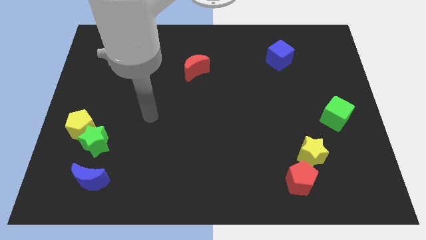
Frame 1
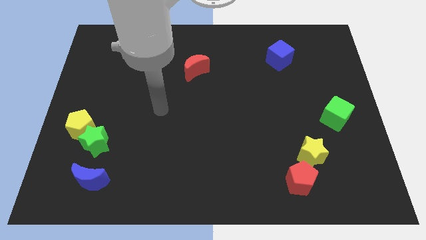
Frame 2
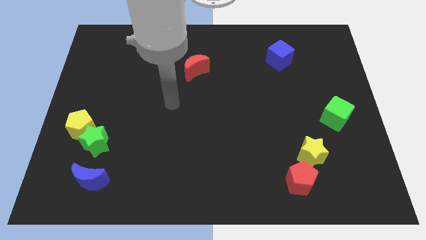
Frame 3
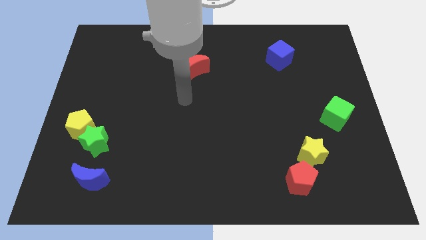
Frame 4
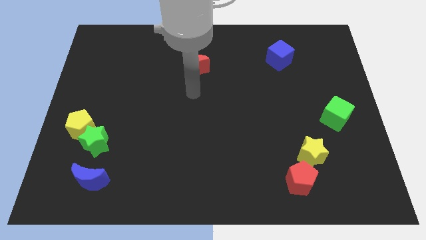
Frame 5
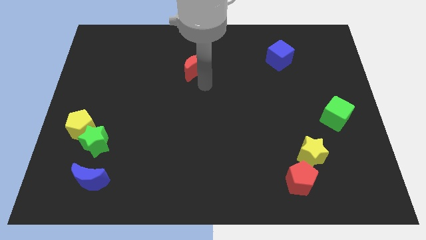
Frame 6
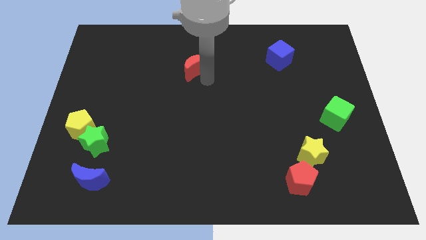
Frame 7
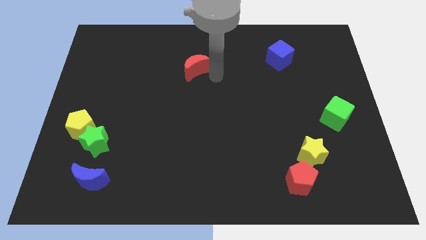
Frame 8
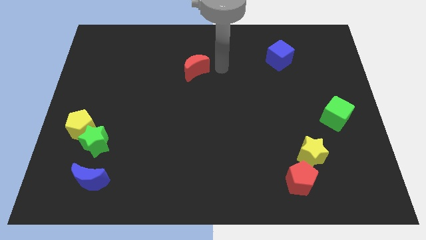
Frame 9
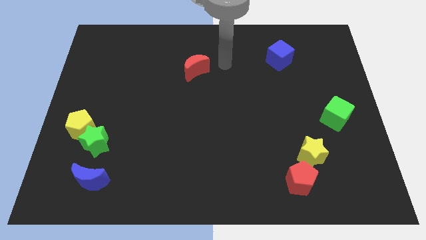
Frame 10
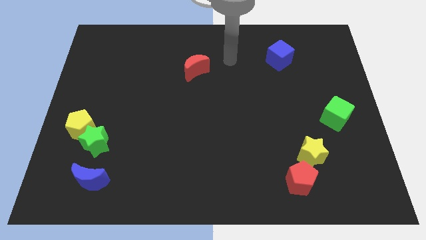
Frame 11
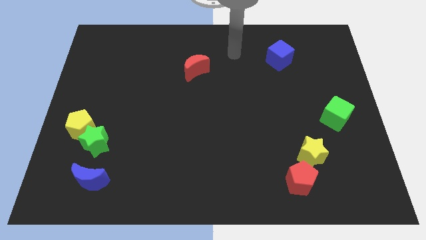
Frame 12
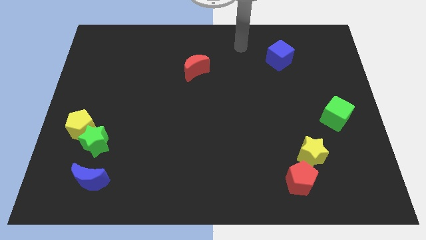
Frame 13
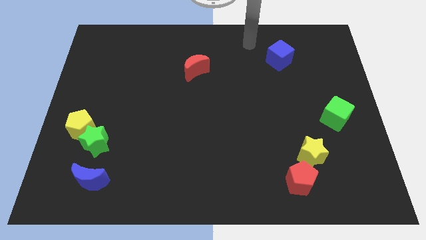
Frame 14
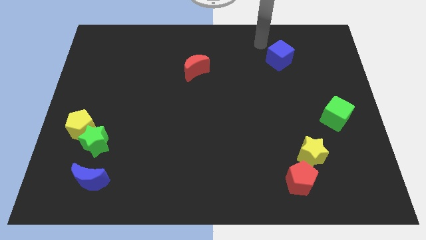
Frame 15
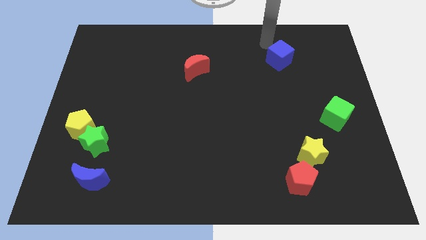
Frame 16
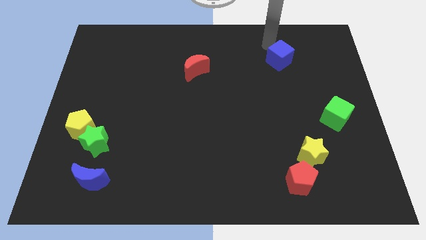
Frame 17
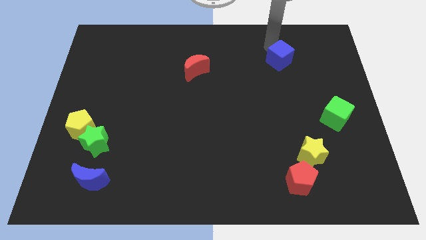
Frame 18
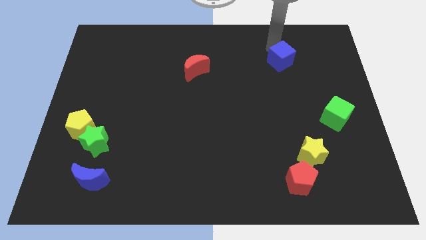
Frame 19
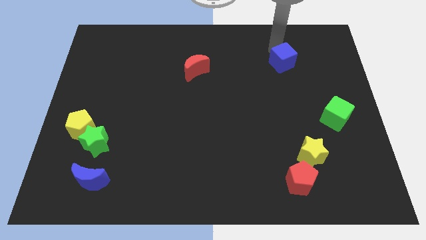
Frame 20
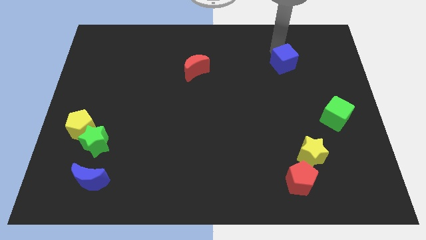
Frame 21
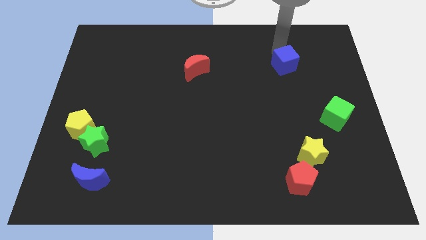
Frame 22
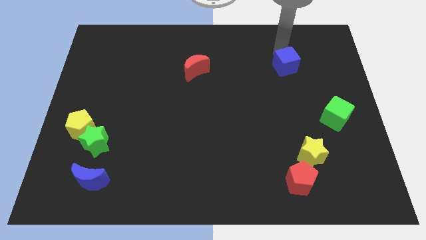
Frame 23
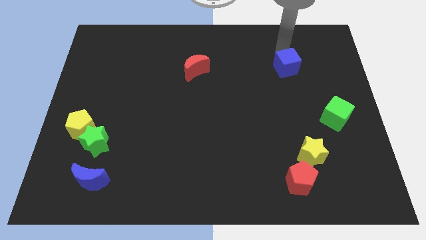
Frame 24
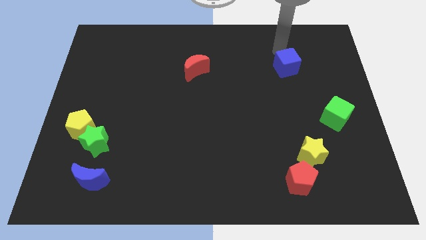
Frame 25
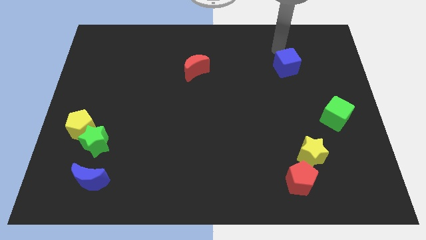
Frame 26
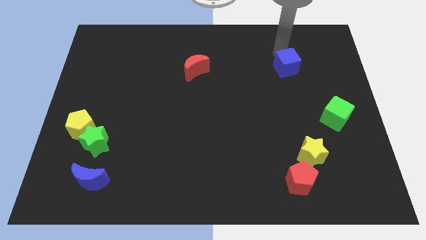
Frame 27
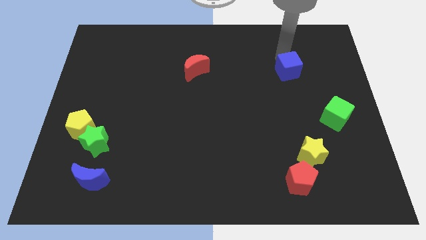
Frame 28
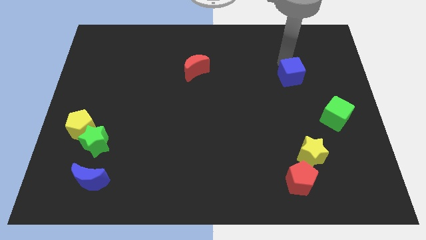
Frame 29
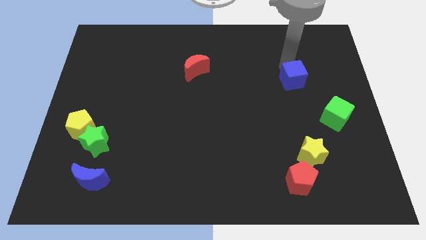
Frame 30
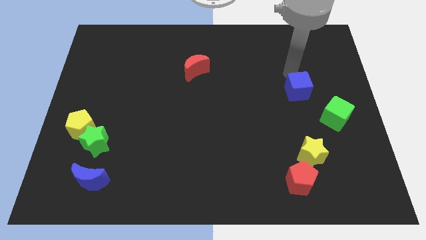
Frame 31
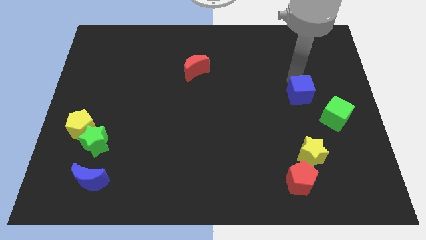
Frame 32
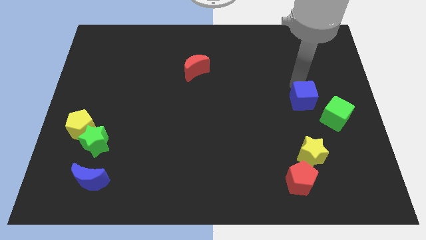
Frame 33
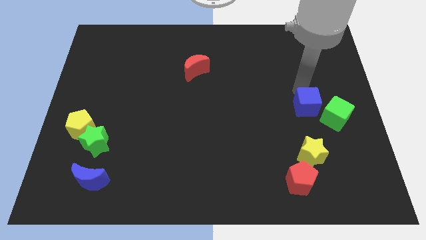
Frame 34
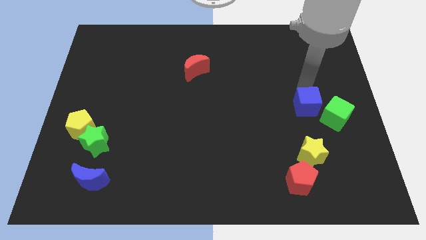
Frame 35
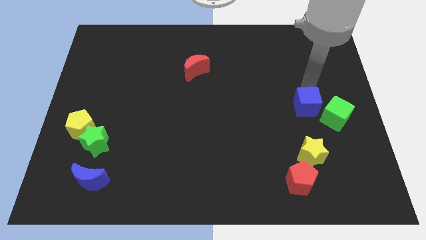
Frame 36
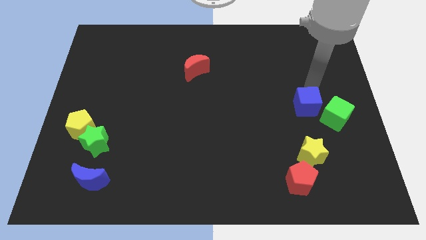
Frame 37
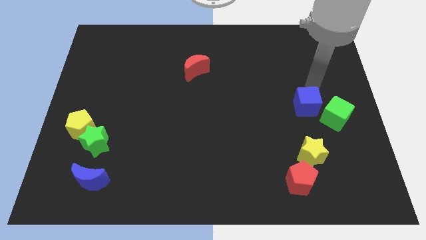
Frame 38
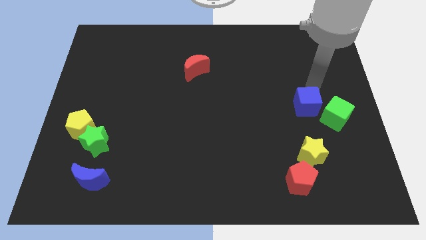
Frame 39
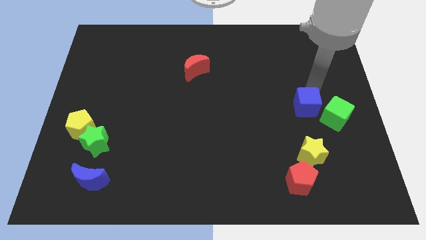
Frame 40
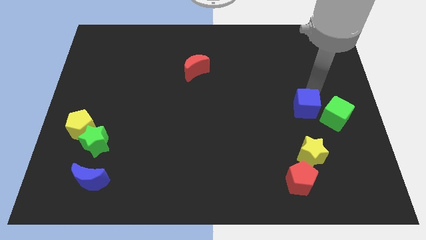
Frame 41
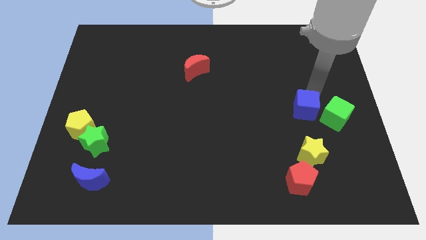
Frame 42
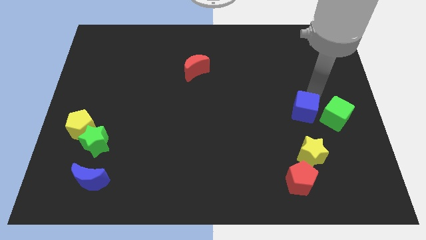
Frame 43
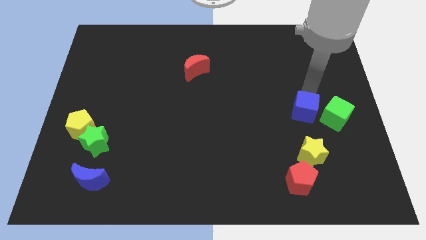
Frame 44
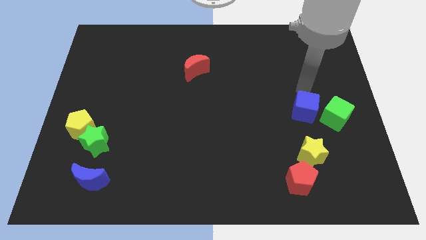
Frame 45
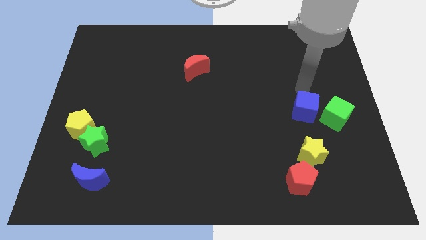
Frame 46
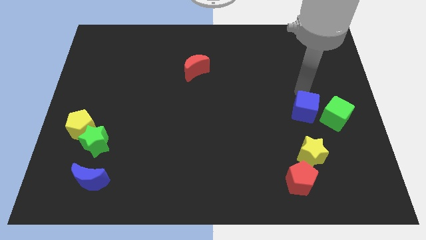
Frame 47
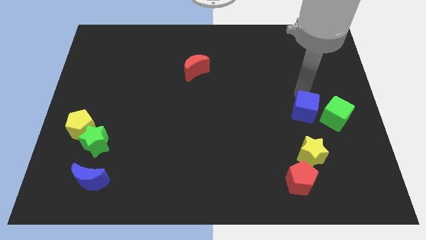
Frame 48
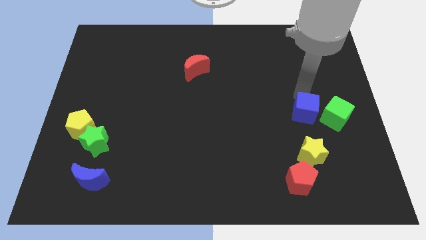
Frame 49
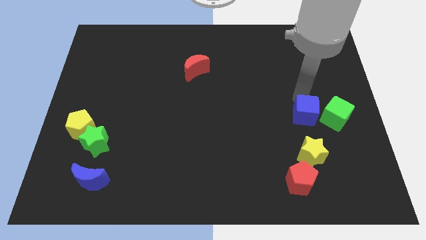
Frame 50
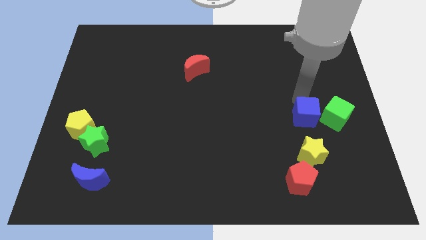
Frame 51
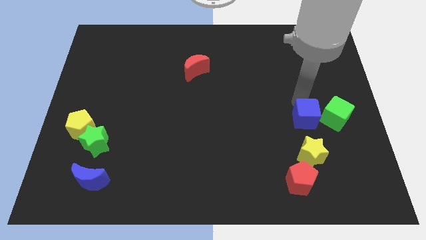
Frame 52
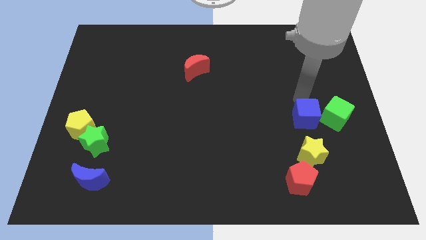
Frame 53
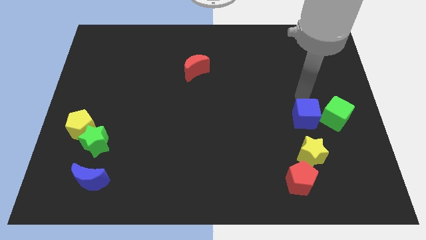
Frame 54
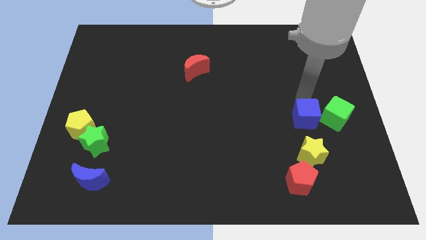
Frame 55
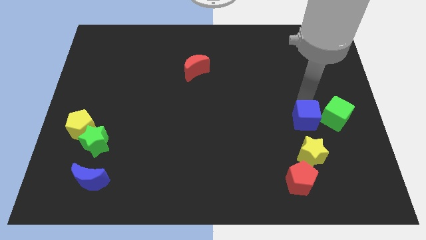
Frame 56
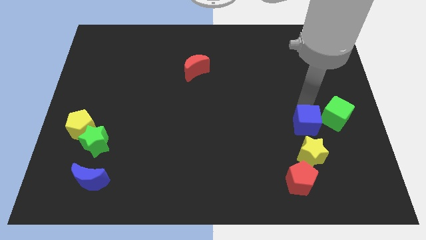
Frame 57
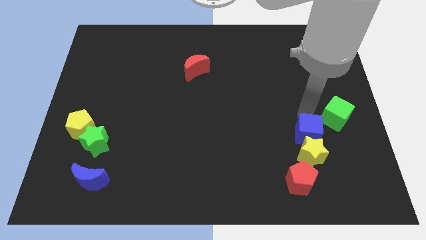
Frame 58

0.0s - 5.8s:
slide the blue cube next to the yellow star

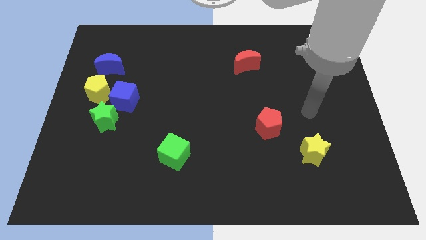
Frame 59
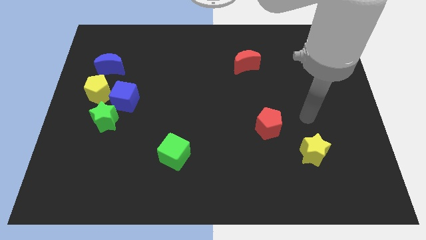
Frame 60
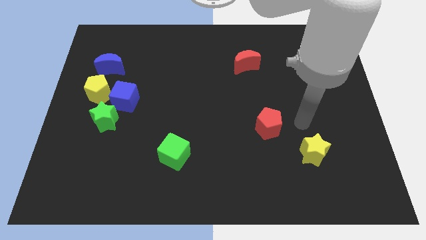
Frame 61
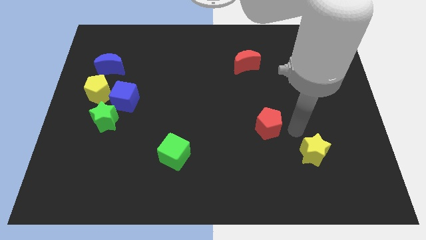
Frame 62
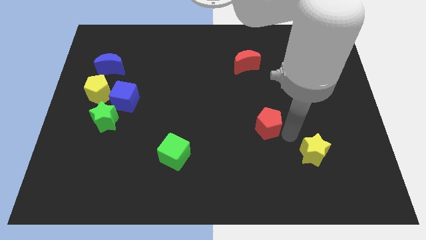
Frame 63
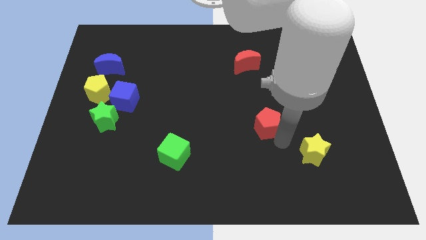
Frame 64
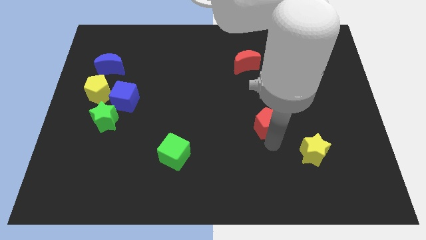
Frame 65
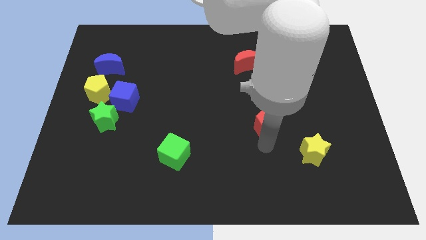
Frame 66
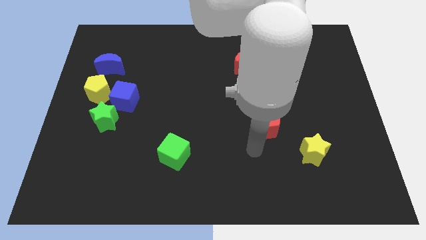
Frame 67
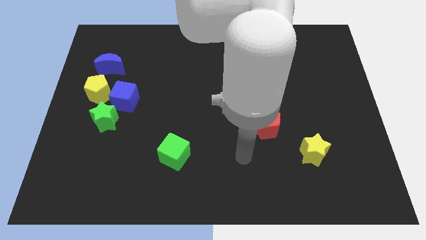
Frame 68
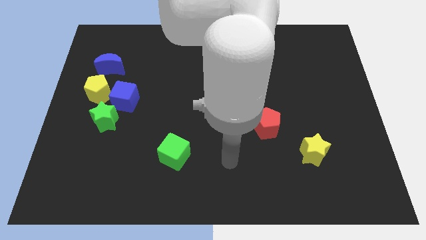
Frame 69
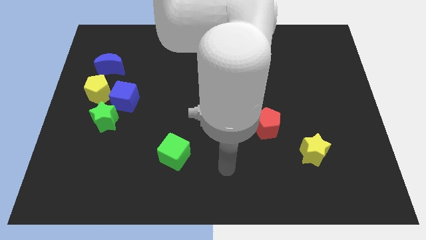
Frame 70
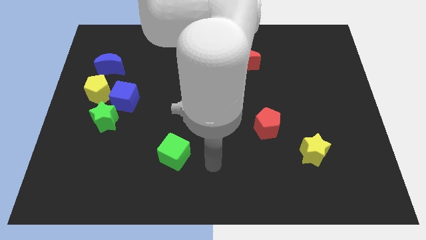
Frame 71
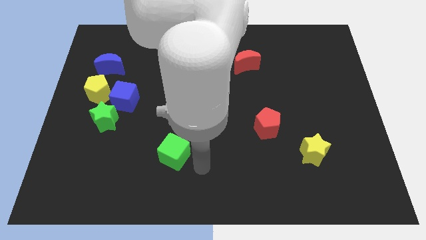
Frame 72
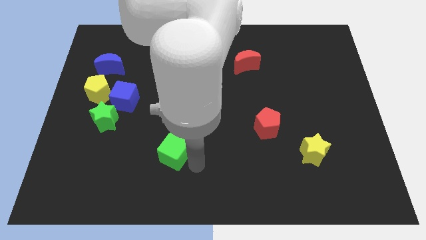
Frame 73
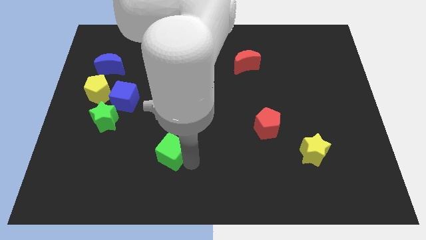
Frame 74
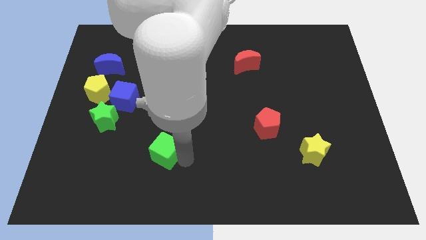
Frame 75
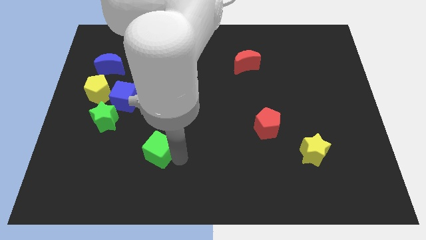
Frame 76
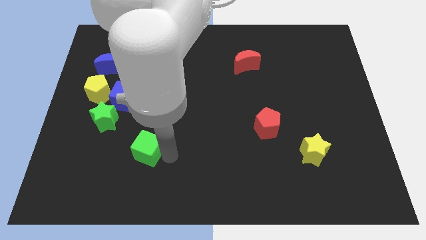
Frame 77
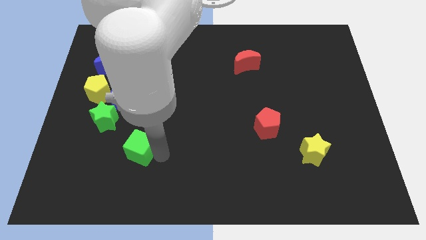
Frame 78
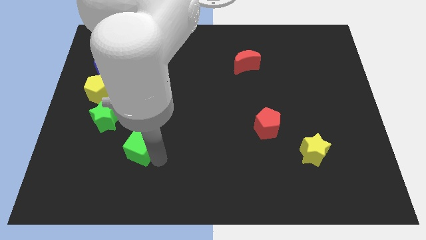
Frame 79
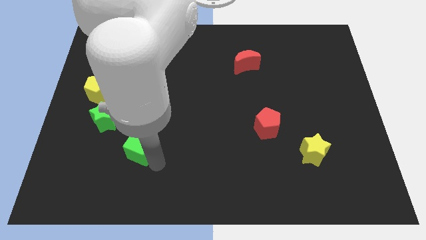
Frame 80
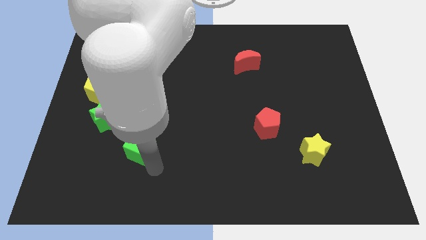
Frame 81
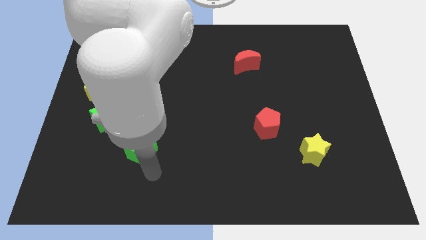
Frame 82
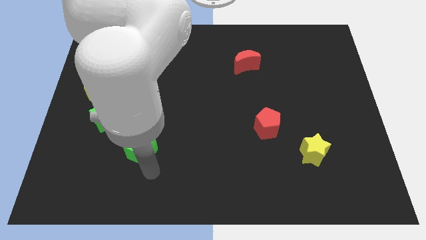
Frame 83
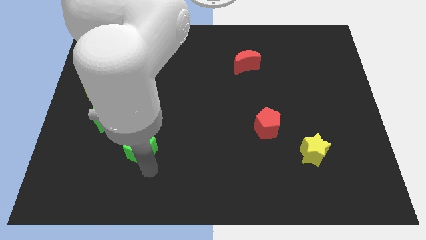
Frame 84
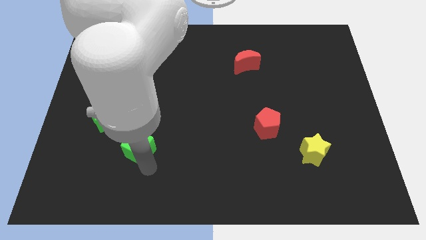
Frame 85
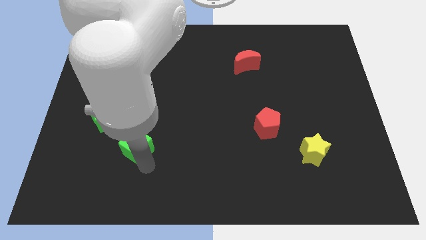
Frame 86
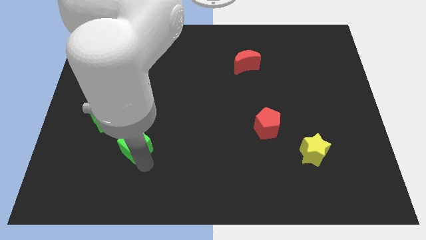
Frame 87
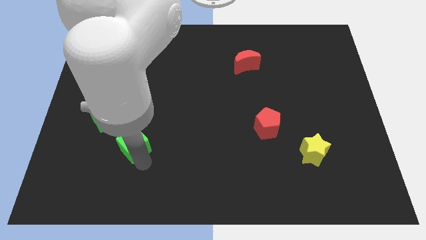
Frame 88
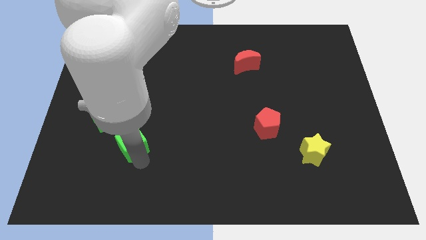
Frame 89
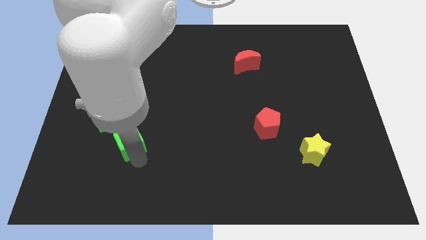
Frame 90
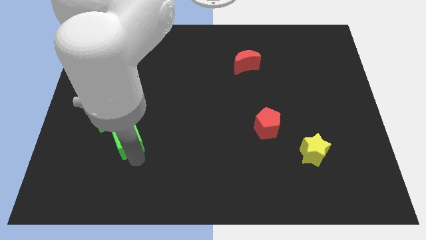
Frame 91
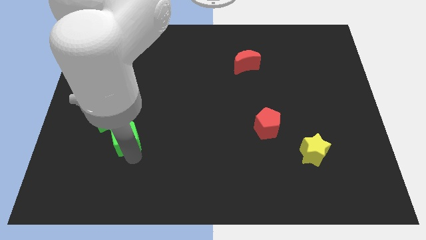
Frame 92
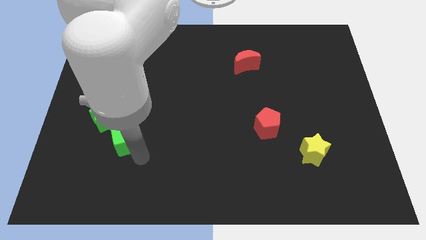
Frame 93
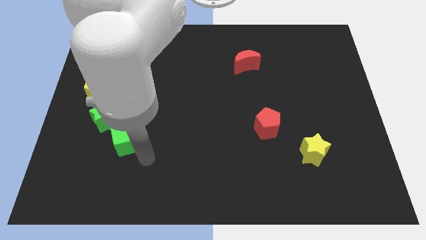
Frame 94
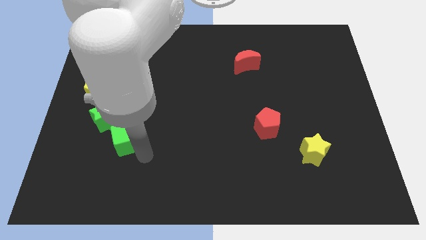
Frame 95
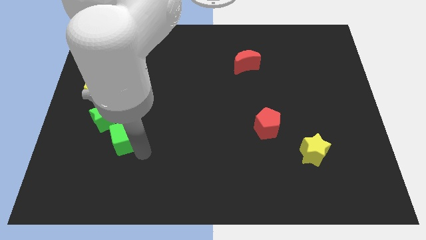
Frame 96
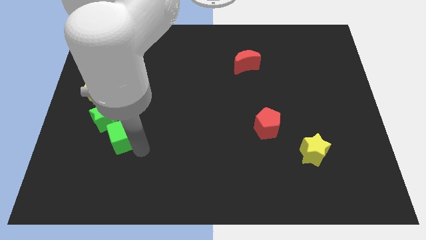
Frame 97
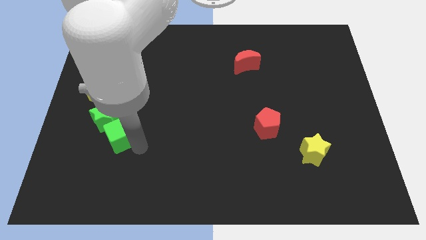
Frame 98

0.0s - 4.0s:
move the green cube next to the green star
